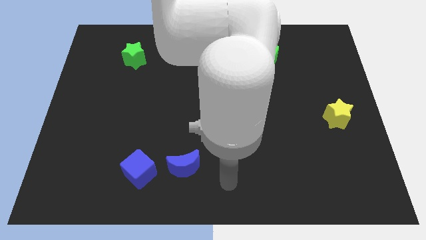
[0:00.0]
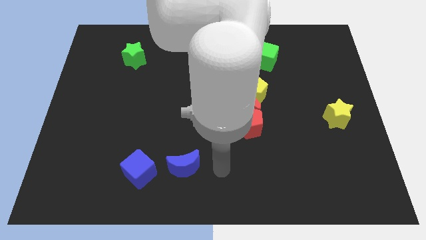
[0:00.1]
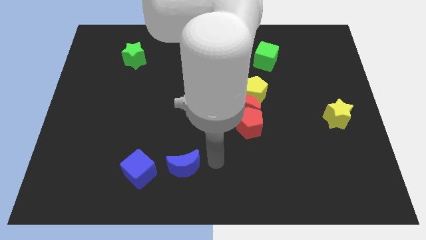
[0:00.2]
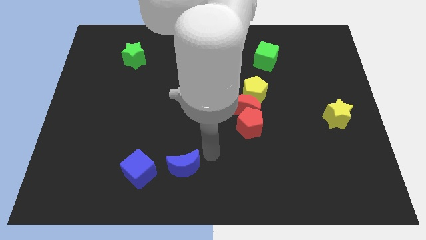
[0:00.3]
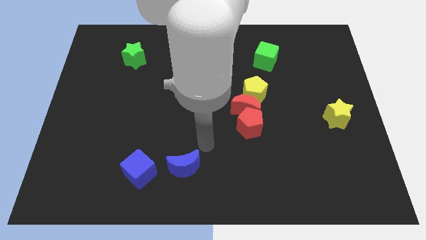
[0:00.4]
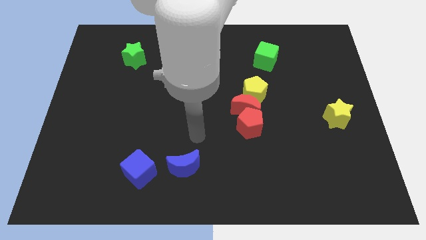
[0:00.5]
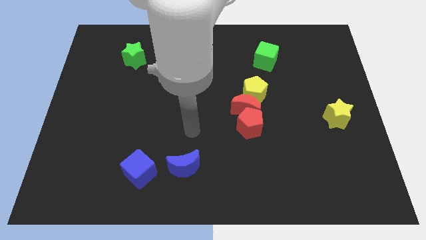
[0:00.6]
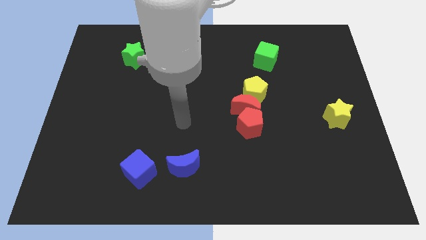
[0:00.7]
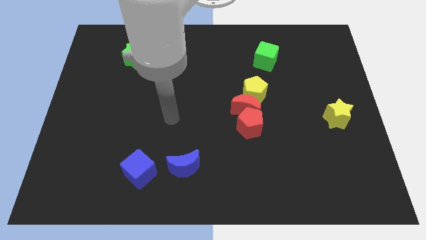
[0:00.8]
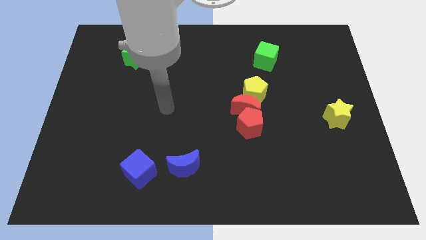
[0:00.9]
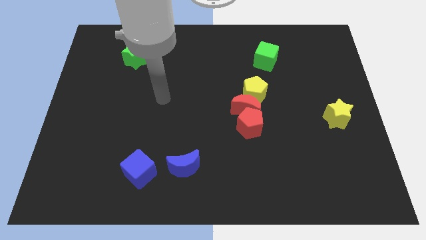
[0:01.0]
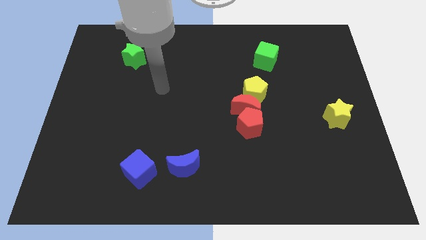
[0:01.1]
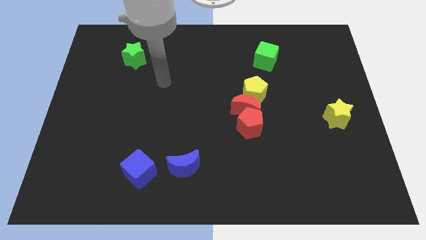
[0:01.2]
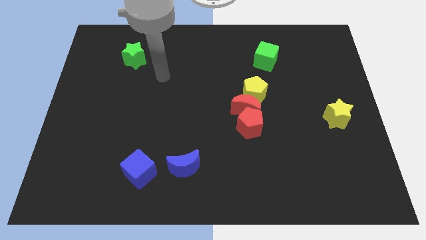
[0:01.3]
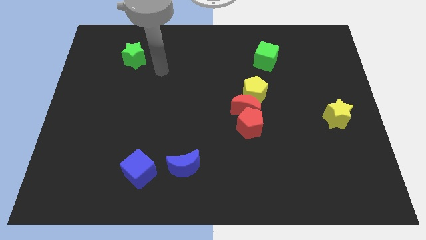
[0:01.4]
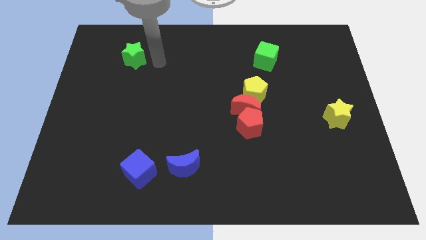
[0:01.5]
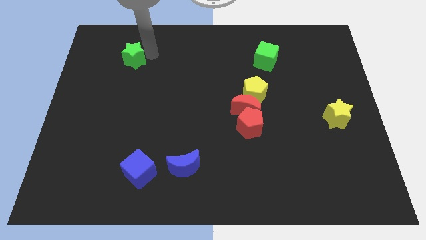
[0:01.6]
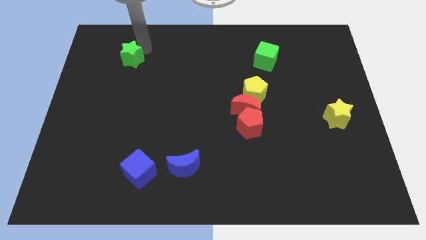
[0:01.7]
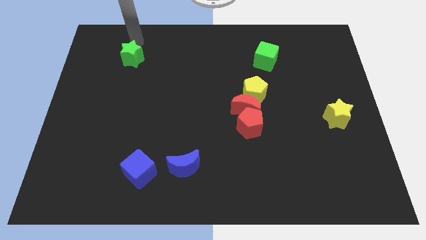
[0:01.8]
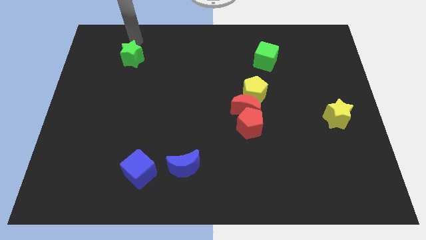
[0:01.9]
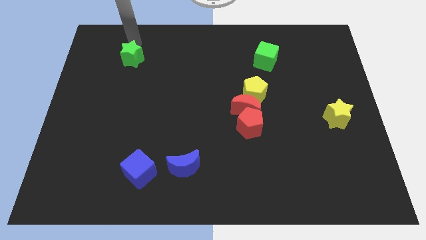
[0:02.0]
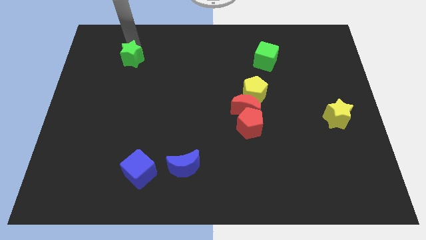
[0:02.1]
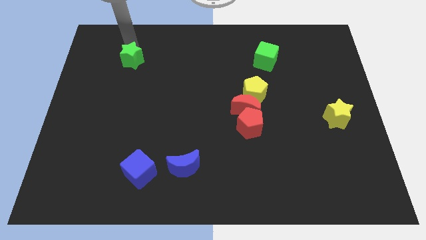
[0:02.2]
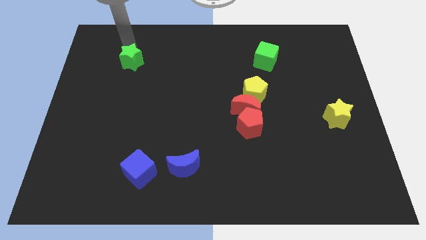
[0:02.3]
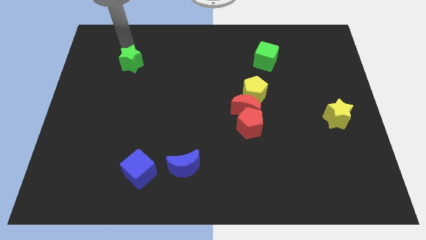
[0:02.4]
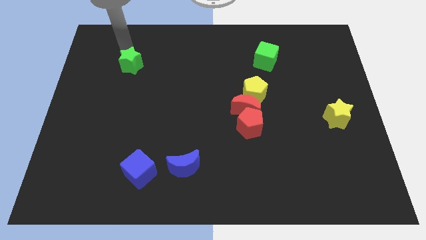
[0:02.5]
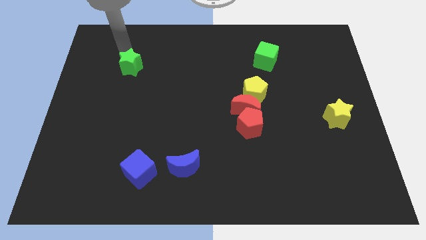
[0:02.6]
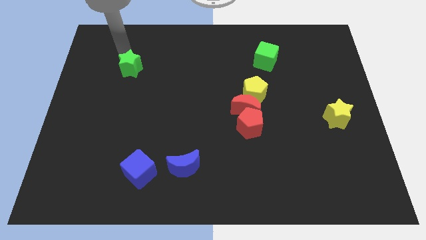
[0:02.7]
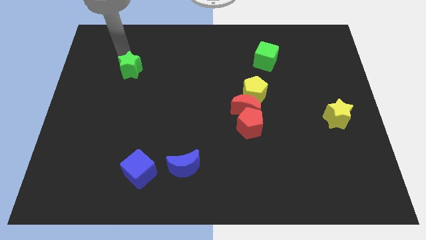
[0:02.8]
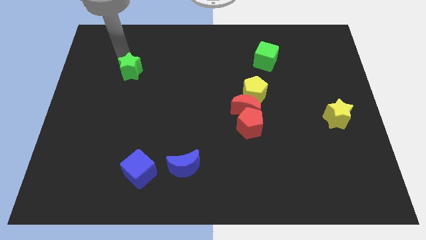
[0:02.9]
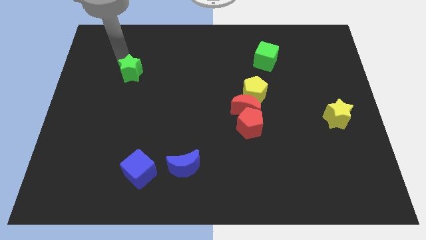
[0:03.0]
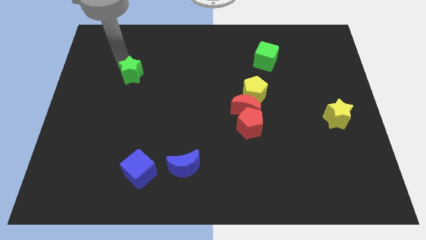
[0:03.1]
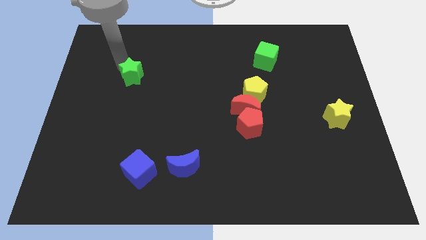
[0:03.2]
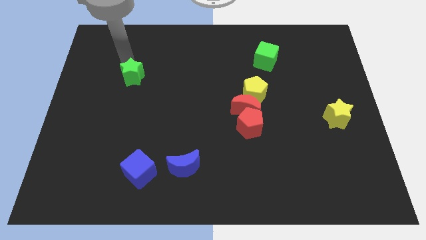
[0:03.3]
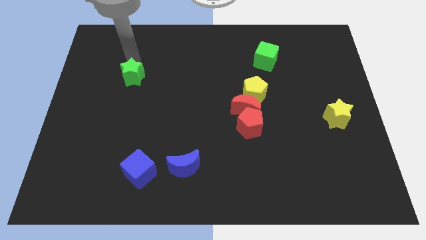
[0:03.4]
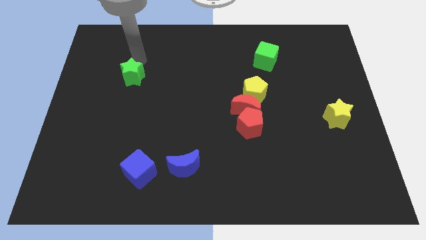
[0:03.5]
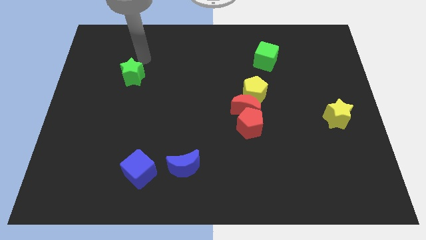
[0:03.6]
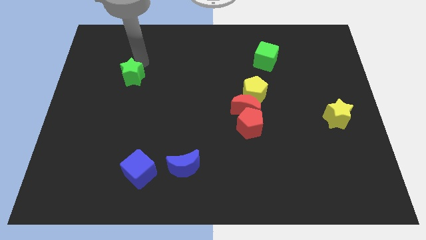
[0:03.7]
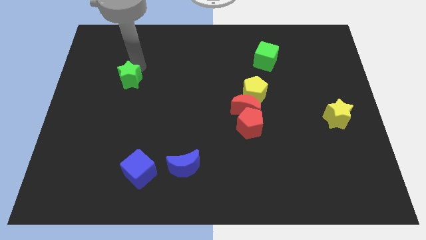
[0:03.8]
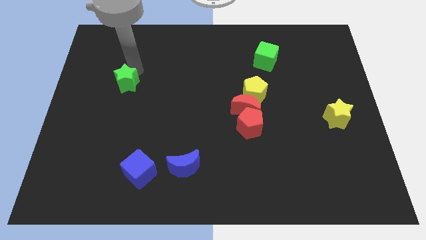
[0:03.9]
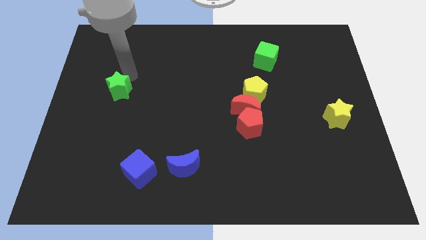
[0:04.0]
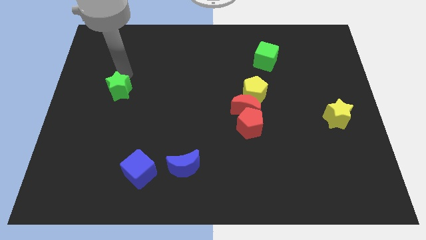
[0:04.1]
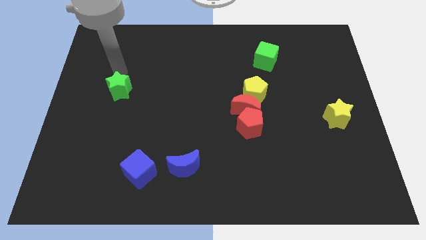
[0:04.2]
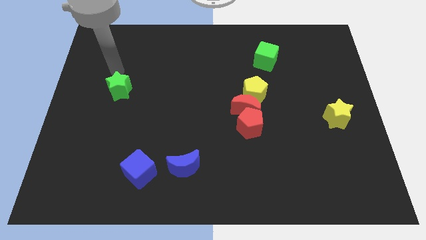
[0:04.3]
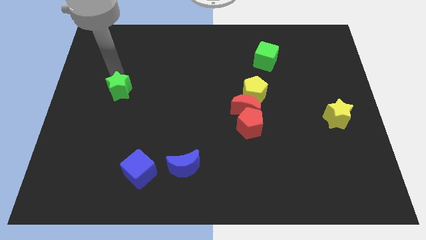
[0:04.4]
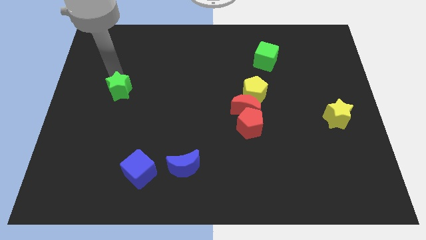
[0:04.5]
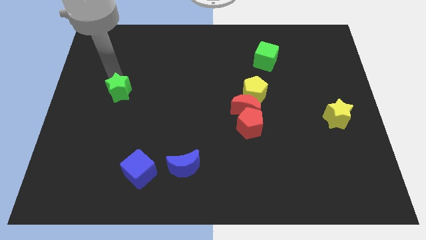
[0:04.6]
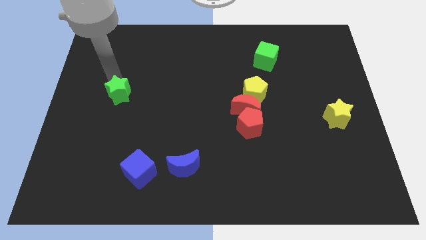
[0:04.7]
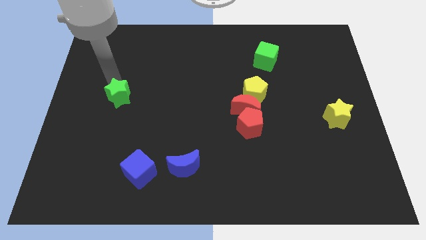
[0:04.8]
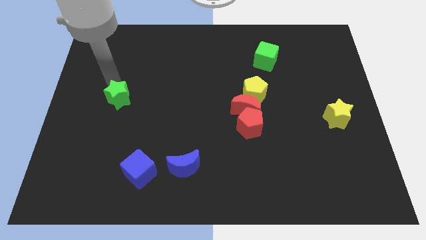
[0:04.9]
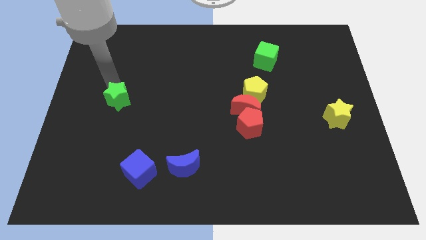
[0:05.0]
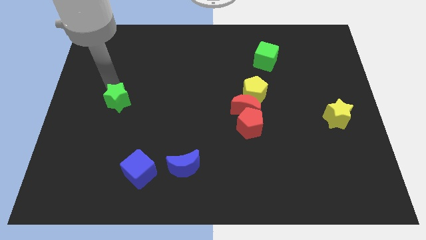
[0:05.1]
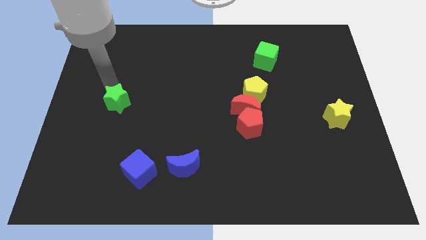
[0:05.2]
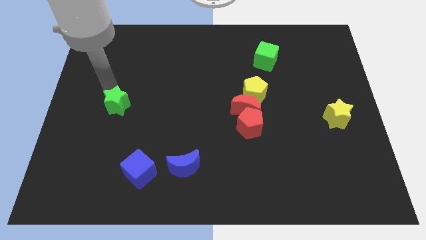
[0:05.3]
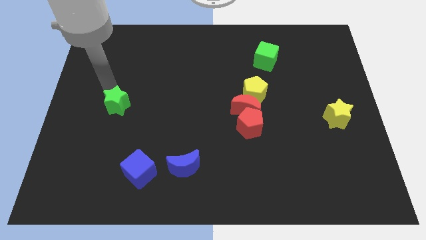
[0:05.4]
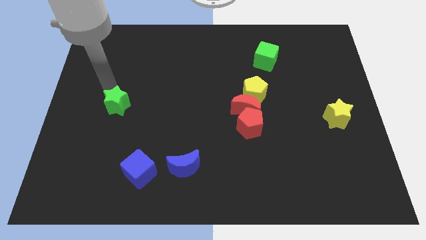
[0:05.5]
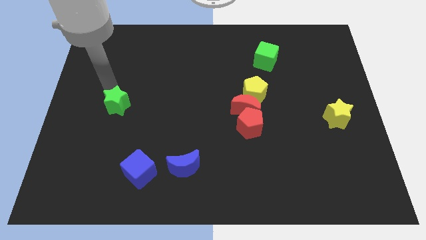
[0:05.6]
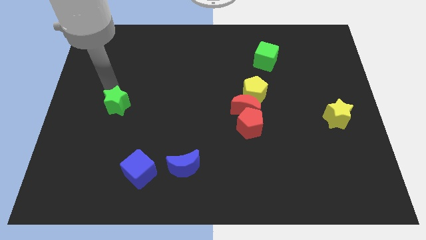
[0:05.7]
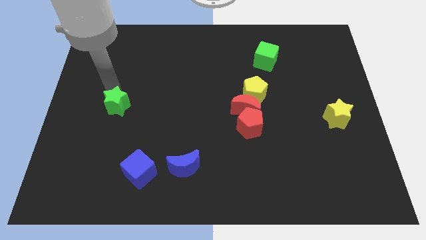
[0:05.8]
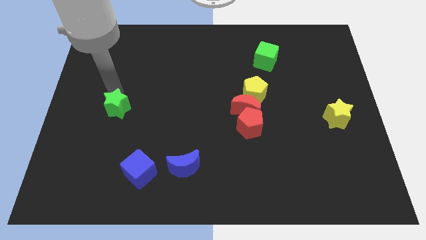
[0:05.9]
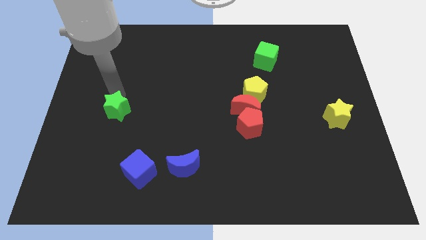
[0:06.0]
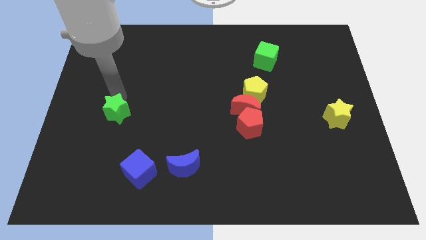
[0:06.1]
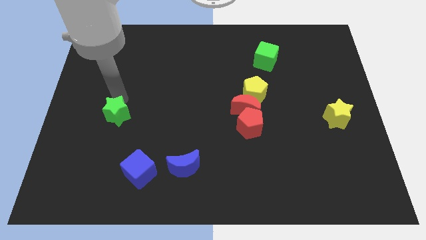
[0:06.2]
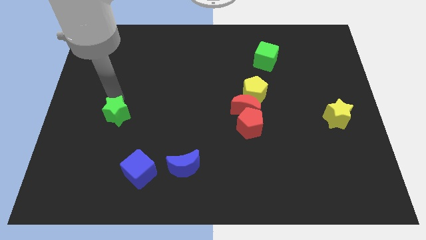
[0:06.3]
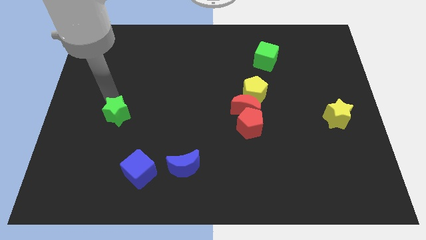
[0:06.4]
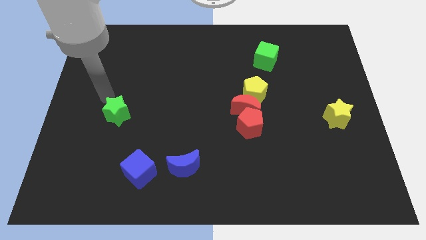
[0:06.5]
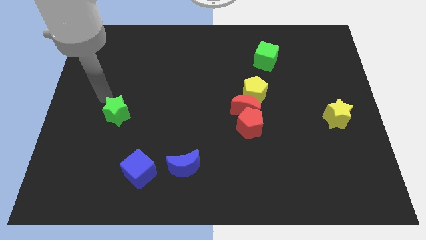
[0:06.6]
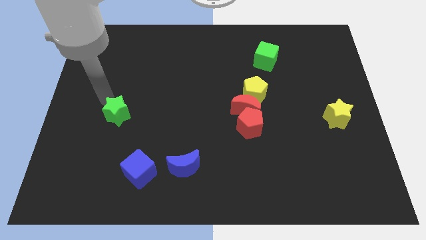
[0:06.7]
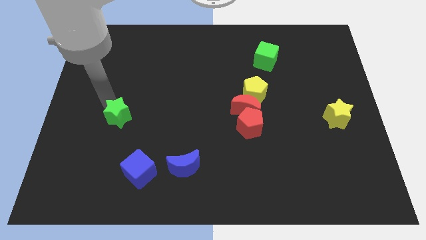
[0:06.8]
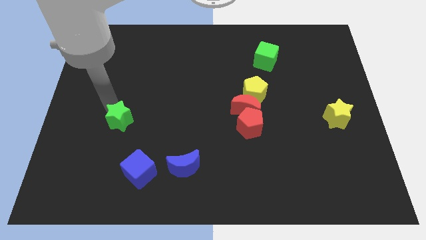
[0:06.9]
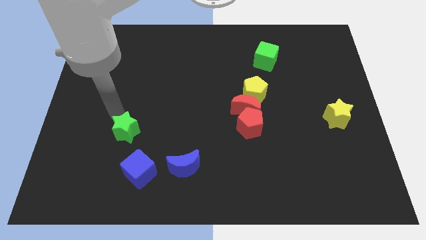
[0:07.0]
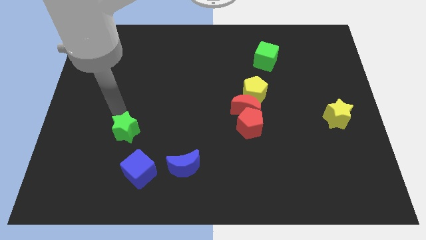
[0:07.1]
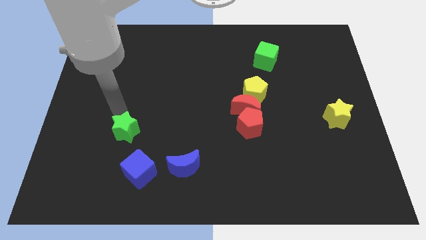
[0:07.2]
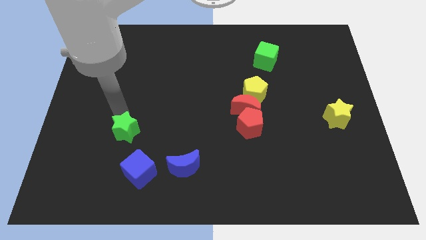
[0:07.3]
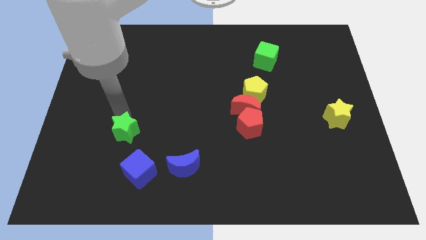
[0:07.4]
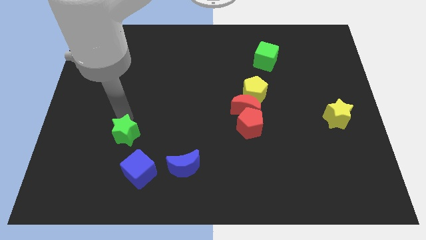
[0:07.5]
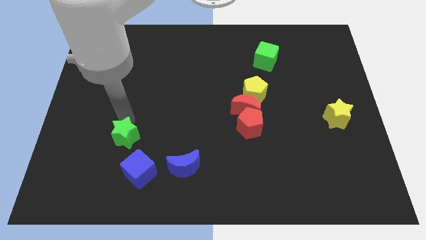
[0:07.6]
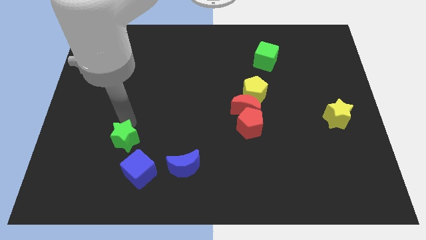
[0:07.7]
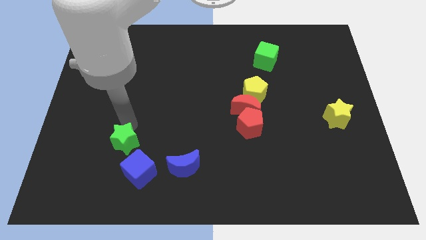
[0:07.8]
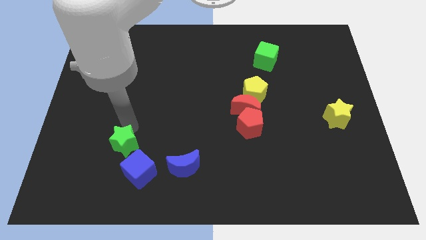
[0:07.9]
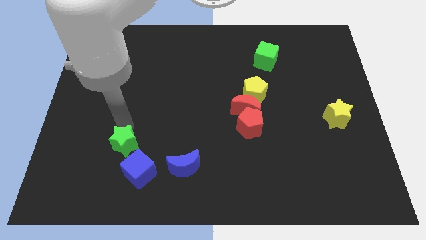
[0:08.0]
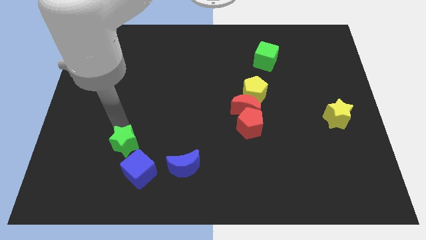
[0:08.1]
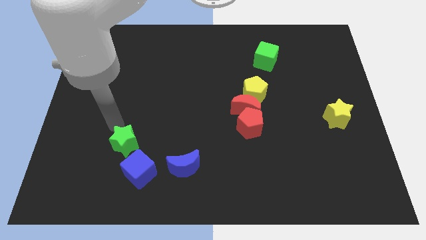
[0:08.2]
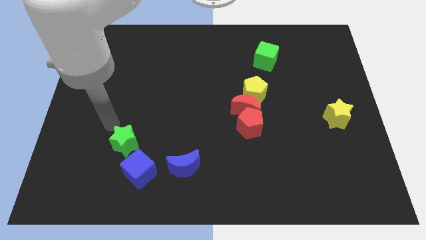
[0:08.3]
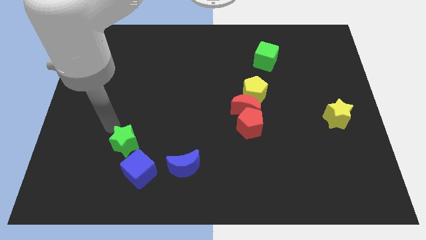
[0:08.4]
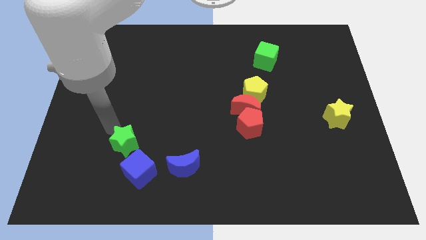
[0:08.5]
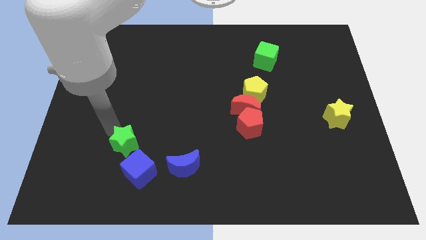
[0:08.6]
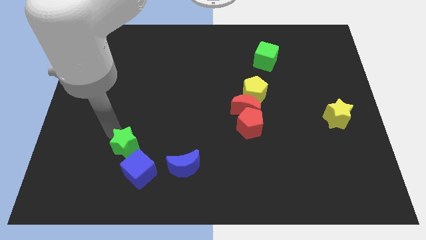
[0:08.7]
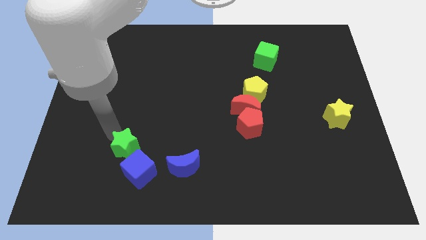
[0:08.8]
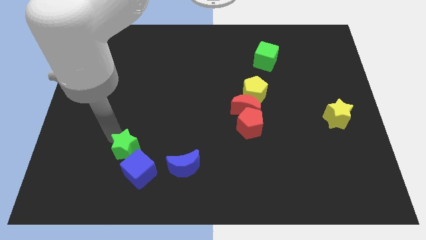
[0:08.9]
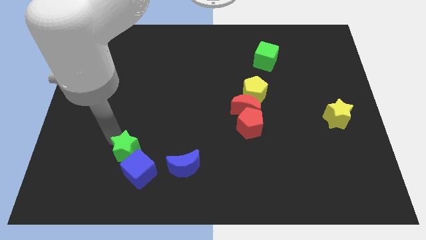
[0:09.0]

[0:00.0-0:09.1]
slide the green star towards the blue cube
